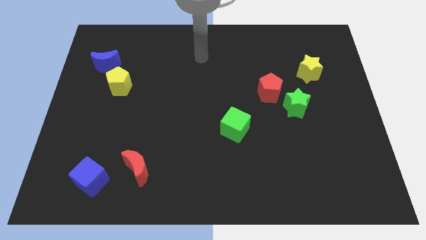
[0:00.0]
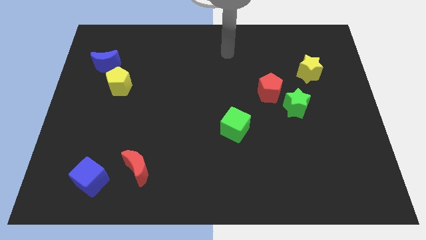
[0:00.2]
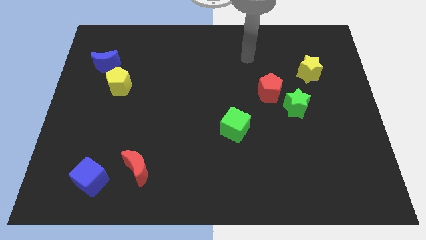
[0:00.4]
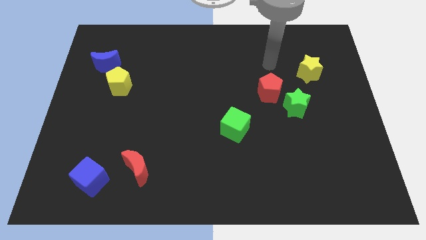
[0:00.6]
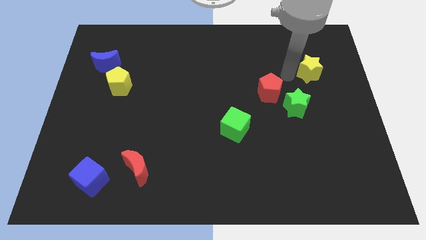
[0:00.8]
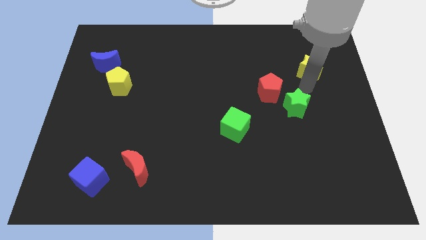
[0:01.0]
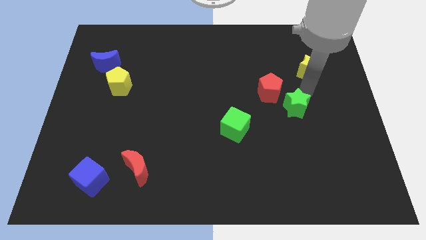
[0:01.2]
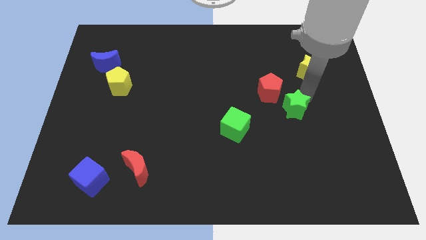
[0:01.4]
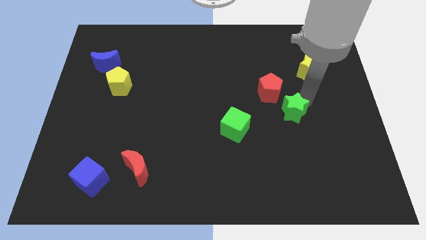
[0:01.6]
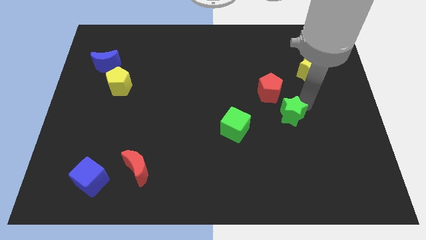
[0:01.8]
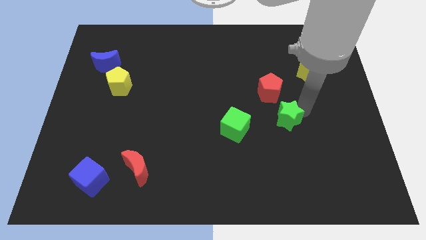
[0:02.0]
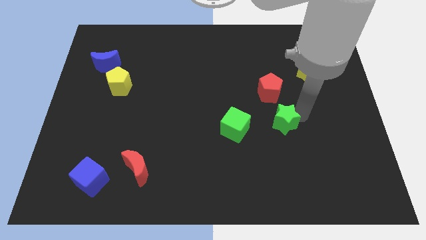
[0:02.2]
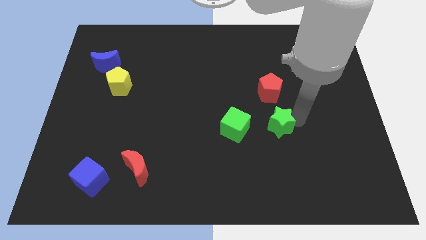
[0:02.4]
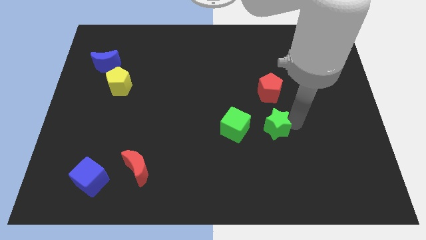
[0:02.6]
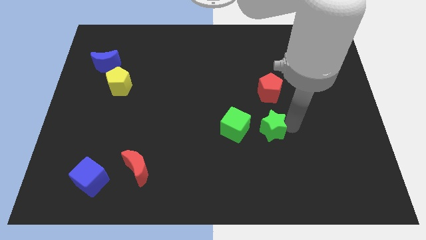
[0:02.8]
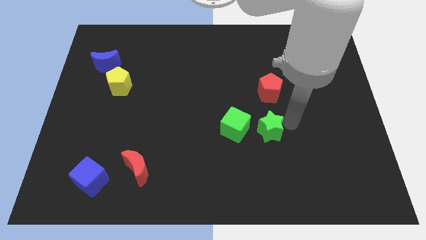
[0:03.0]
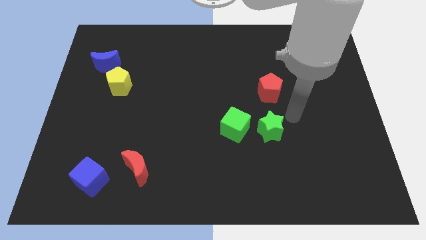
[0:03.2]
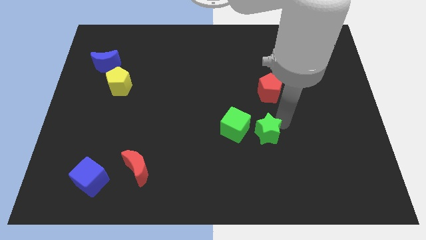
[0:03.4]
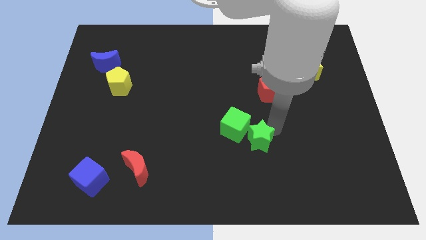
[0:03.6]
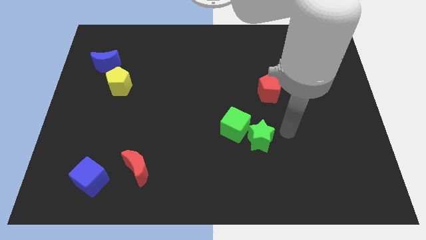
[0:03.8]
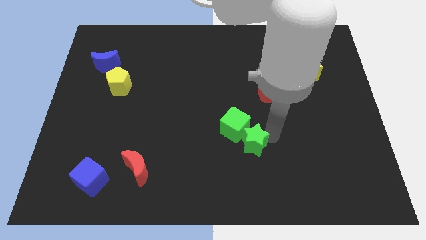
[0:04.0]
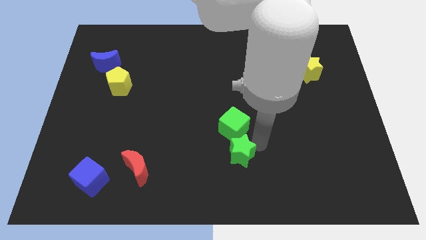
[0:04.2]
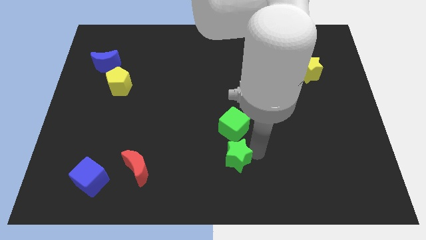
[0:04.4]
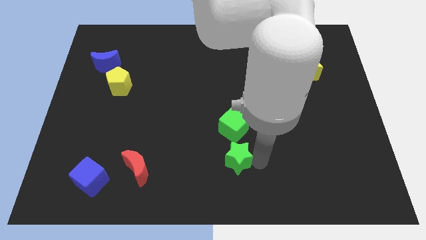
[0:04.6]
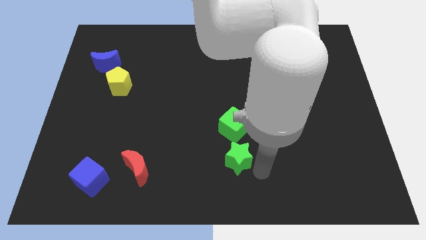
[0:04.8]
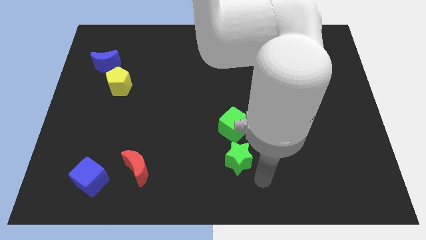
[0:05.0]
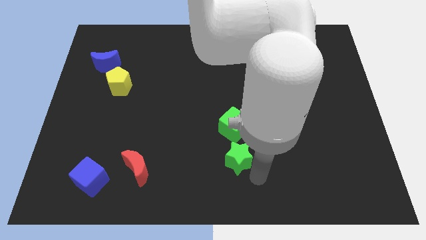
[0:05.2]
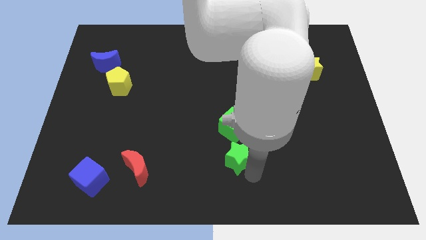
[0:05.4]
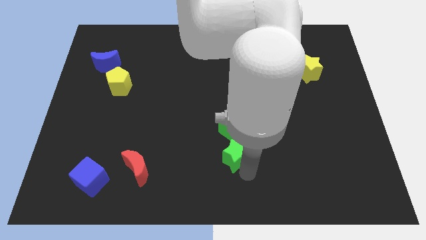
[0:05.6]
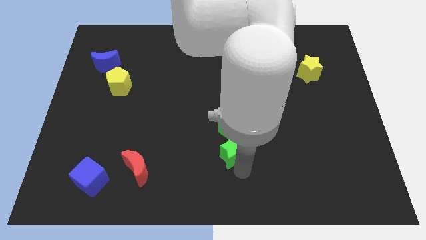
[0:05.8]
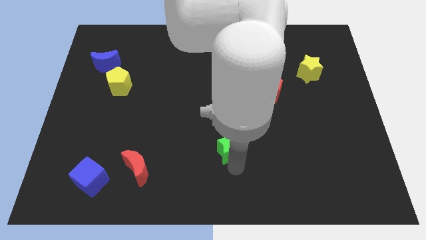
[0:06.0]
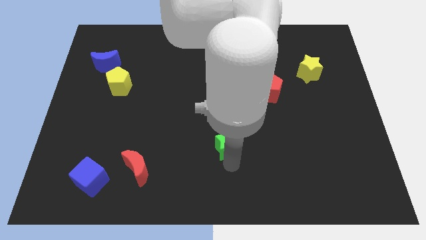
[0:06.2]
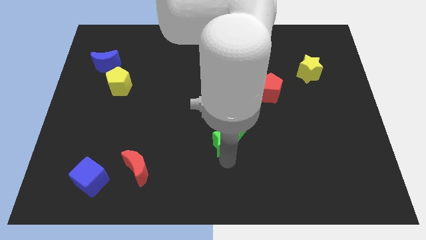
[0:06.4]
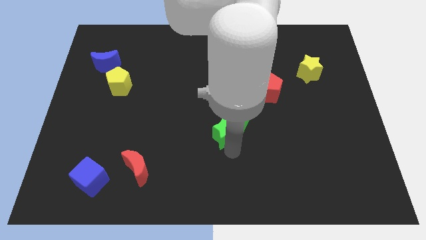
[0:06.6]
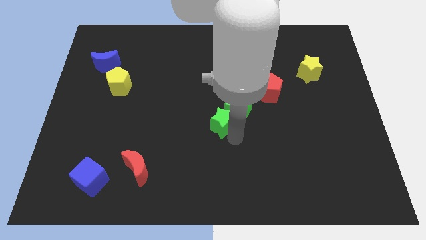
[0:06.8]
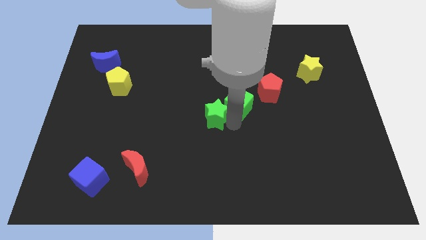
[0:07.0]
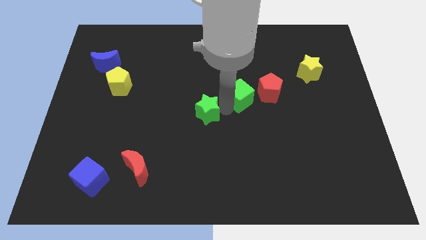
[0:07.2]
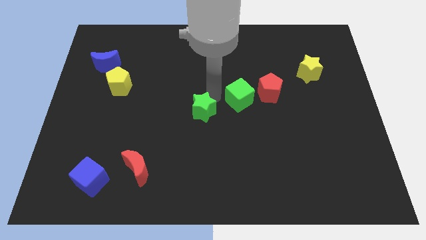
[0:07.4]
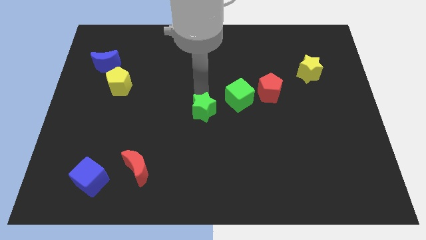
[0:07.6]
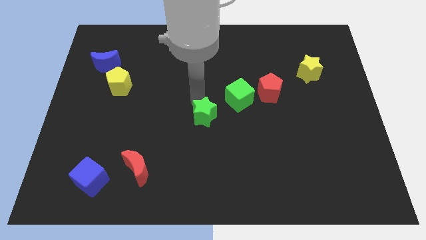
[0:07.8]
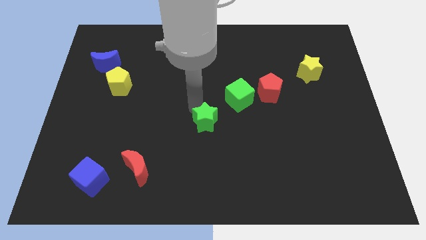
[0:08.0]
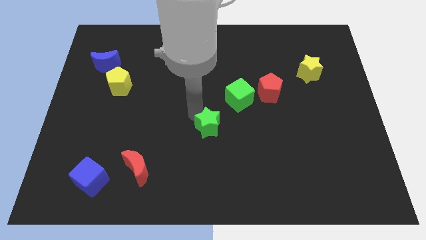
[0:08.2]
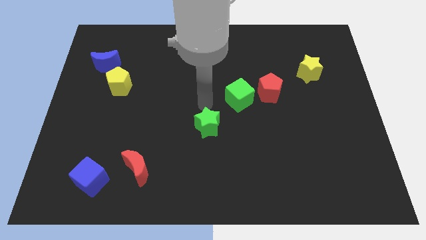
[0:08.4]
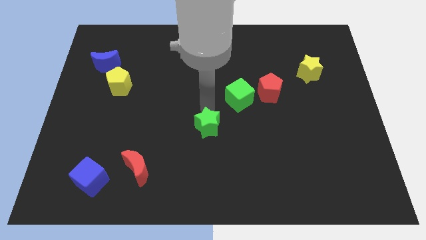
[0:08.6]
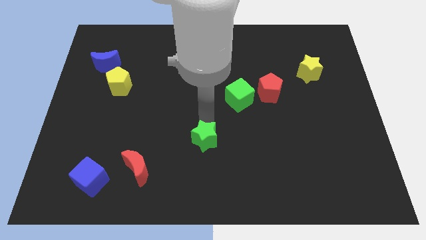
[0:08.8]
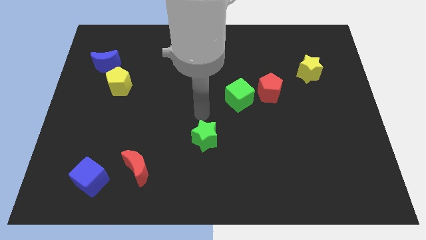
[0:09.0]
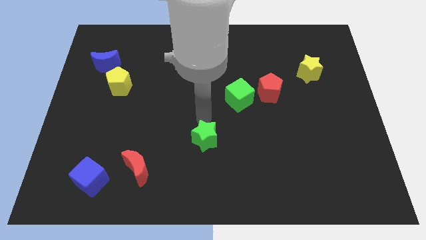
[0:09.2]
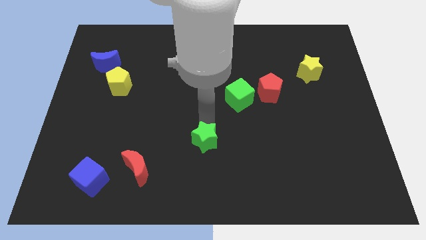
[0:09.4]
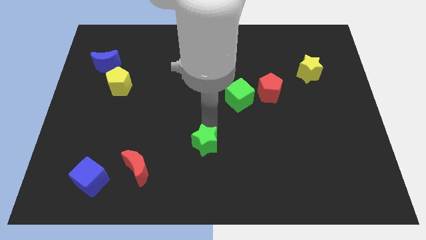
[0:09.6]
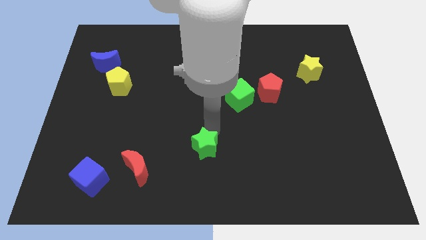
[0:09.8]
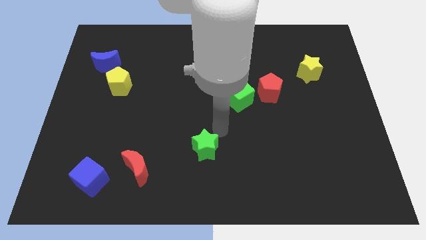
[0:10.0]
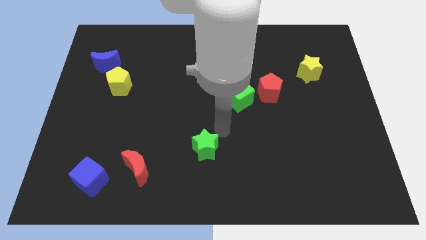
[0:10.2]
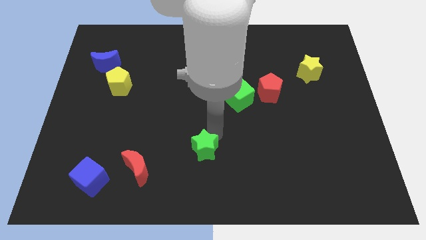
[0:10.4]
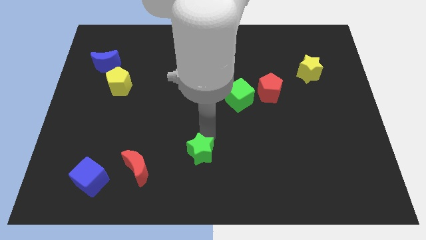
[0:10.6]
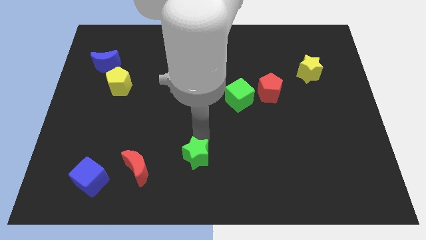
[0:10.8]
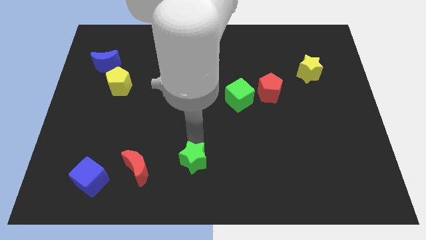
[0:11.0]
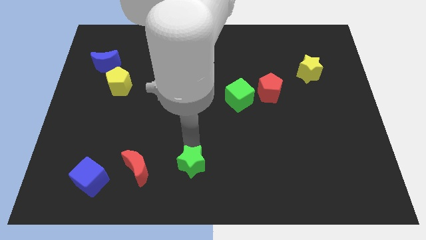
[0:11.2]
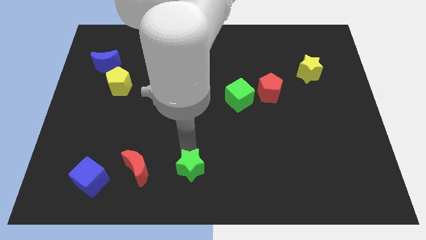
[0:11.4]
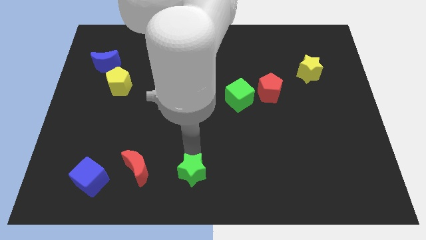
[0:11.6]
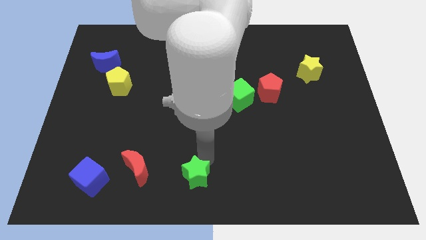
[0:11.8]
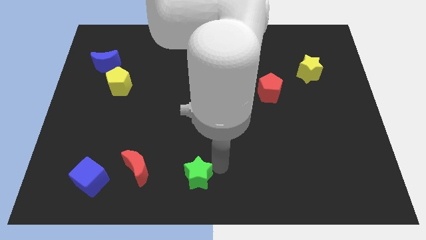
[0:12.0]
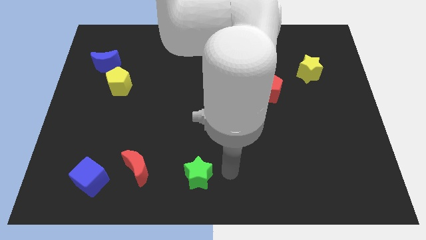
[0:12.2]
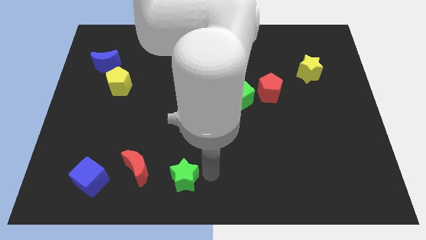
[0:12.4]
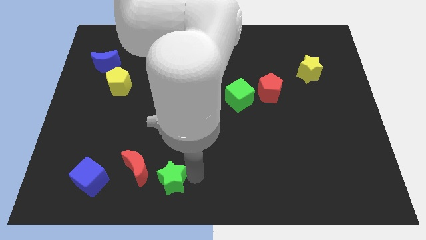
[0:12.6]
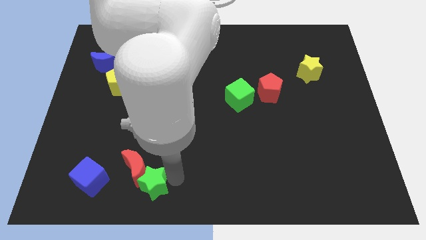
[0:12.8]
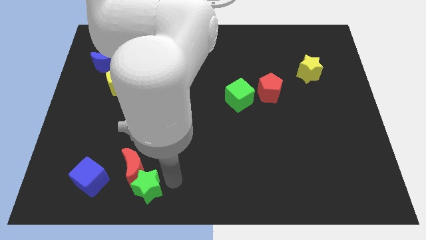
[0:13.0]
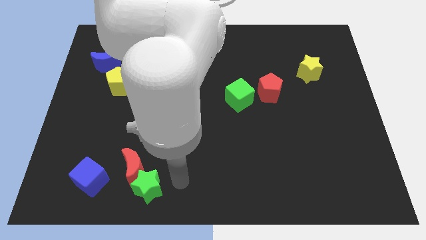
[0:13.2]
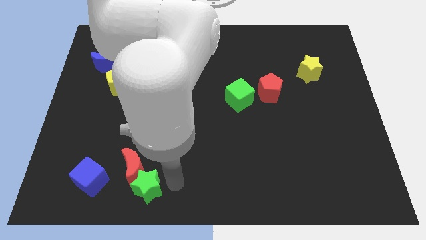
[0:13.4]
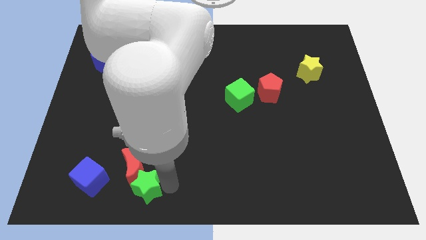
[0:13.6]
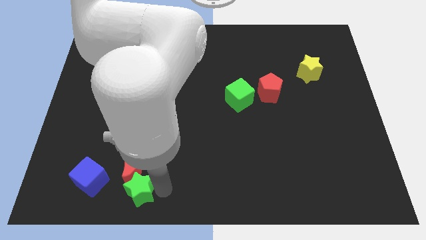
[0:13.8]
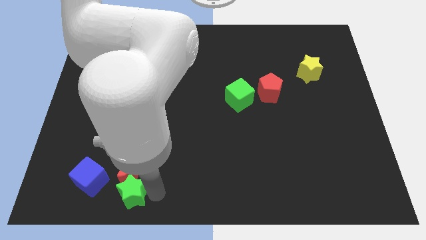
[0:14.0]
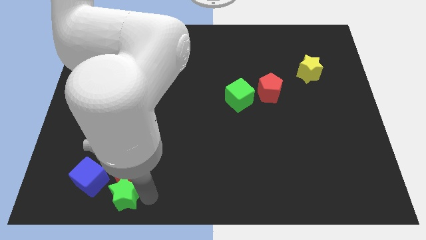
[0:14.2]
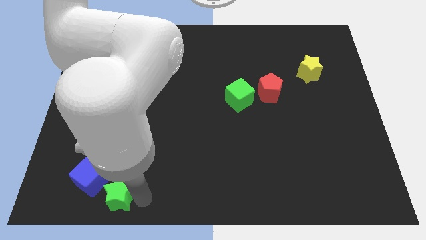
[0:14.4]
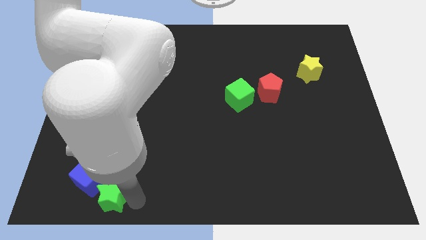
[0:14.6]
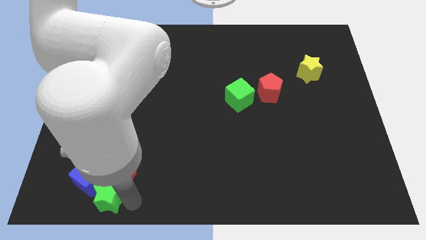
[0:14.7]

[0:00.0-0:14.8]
move the green star towards the blue cube
